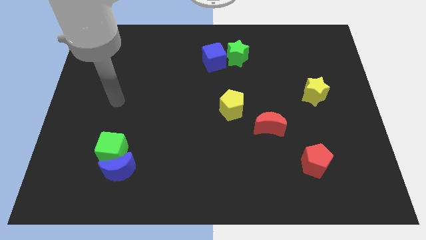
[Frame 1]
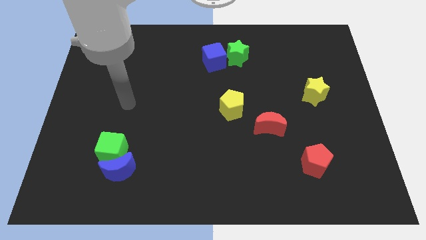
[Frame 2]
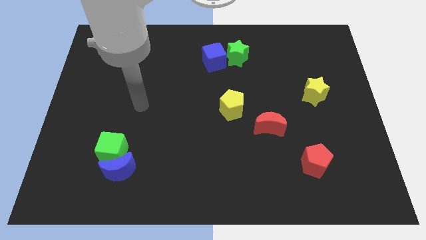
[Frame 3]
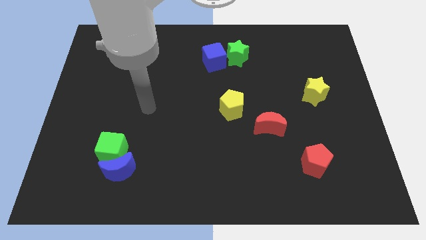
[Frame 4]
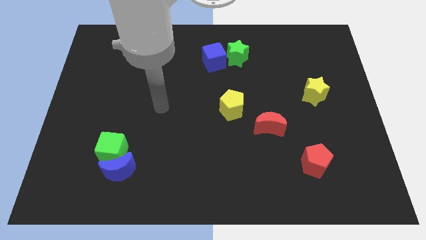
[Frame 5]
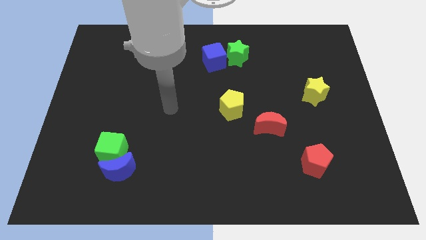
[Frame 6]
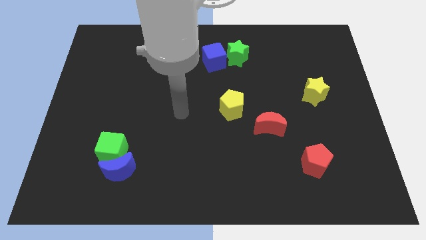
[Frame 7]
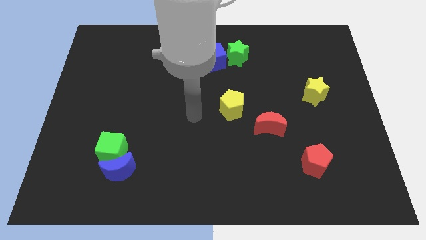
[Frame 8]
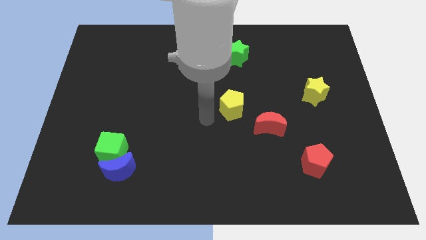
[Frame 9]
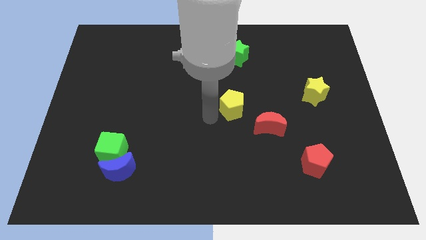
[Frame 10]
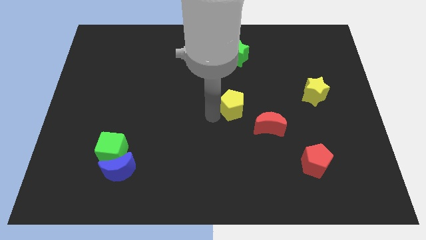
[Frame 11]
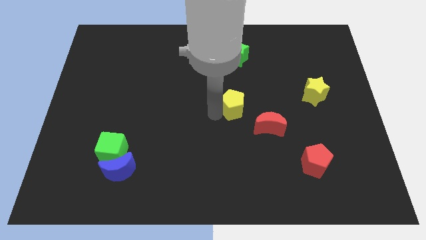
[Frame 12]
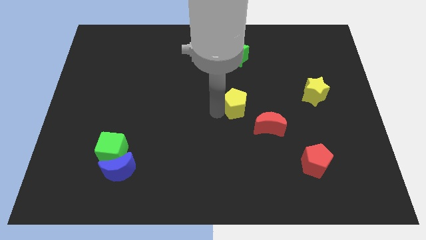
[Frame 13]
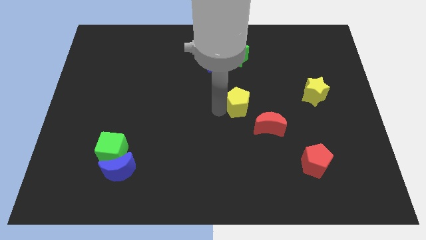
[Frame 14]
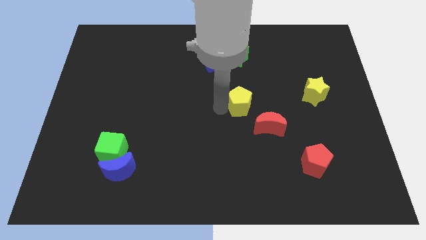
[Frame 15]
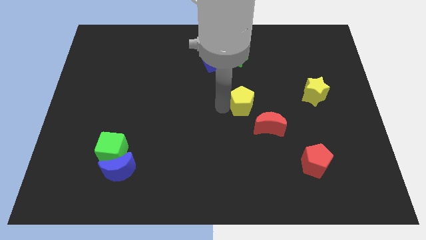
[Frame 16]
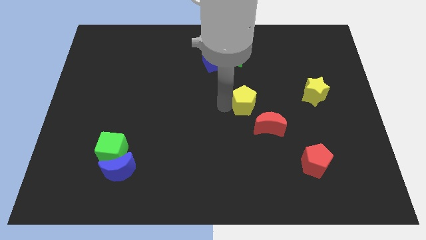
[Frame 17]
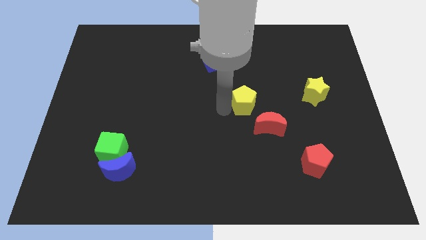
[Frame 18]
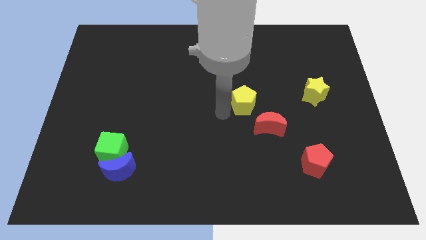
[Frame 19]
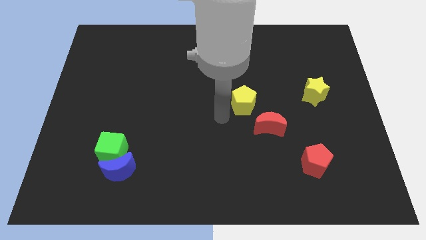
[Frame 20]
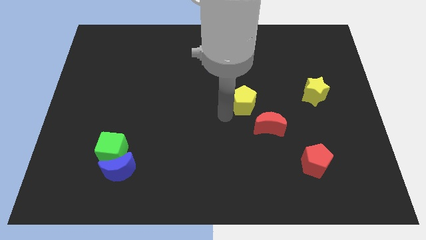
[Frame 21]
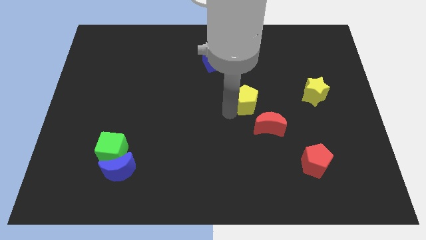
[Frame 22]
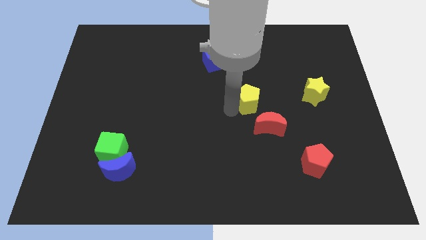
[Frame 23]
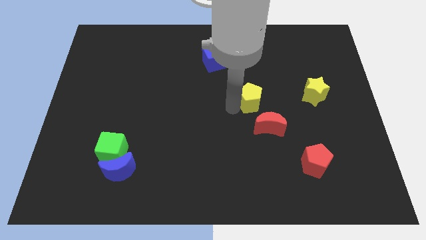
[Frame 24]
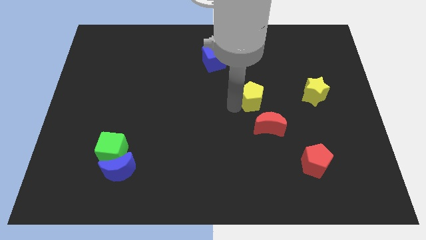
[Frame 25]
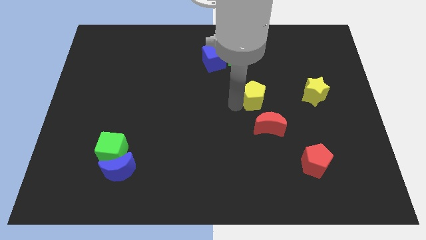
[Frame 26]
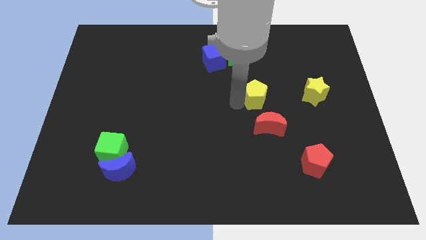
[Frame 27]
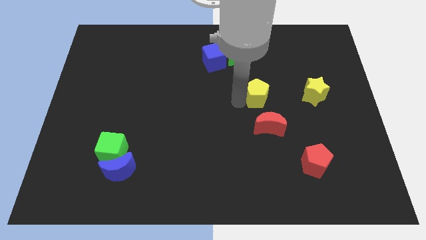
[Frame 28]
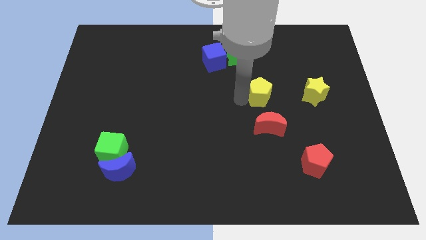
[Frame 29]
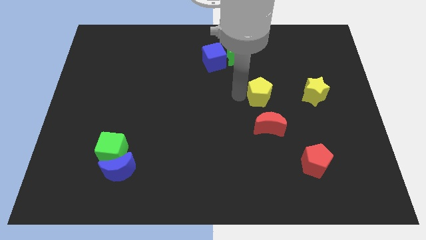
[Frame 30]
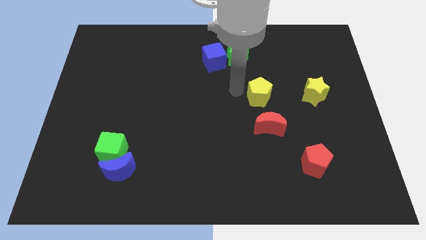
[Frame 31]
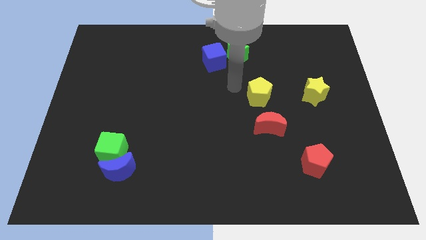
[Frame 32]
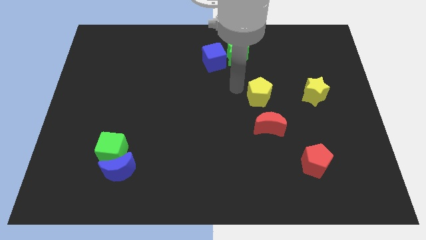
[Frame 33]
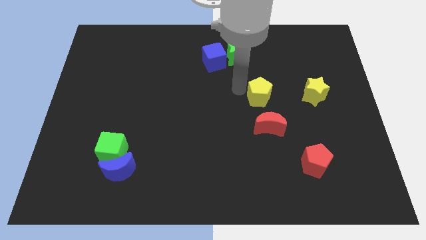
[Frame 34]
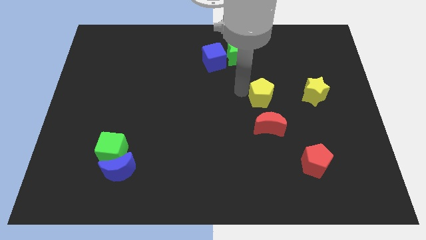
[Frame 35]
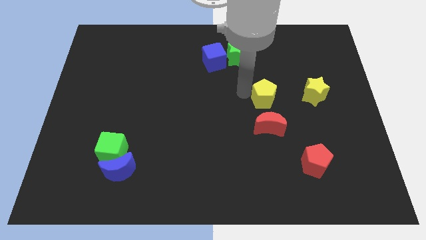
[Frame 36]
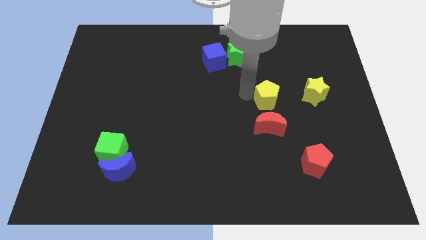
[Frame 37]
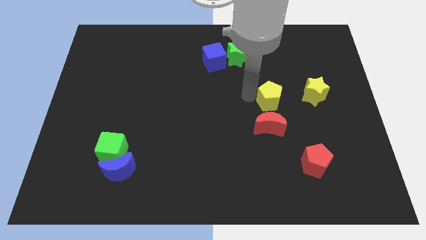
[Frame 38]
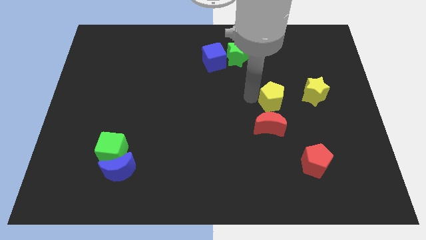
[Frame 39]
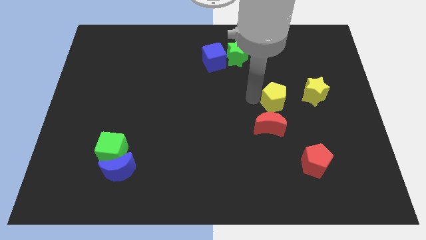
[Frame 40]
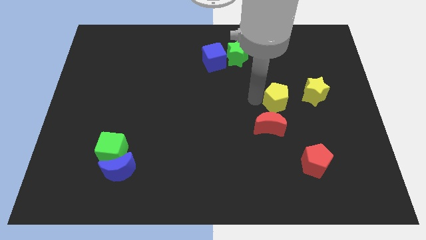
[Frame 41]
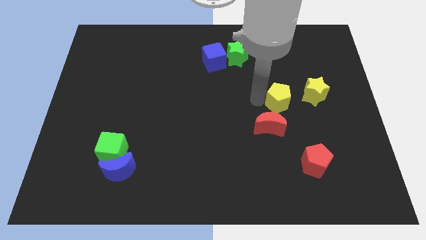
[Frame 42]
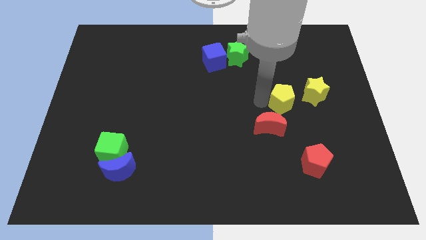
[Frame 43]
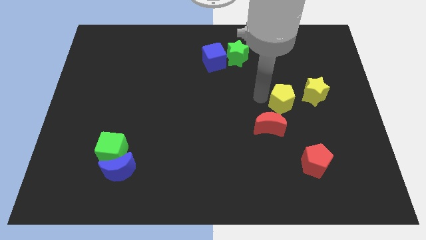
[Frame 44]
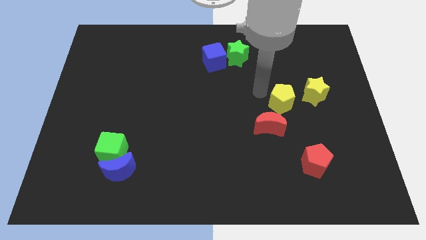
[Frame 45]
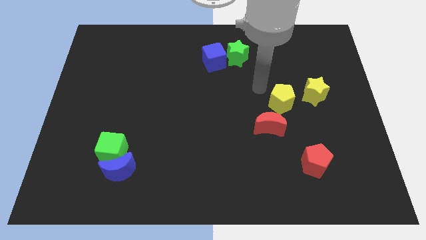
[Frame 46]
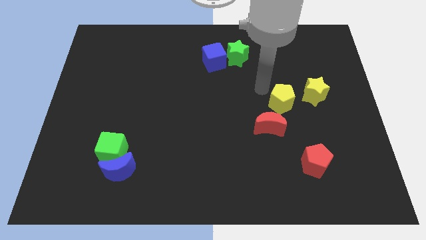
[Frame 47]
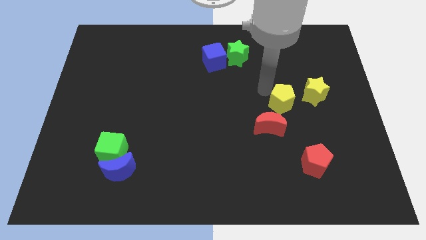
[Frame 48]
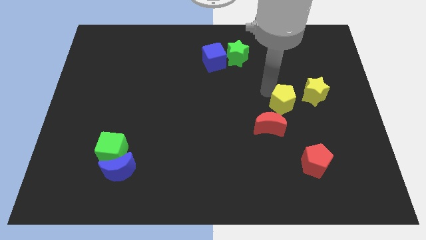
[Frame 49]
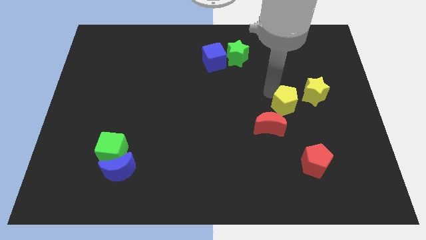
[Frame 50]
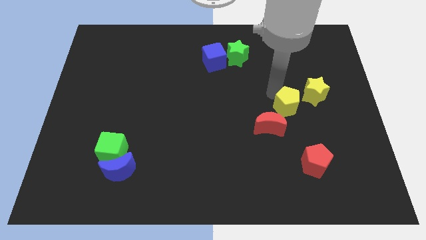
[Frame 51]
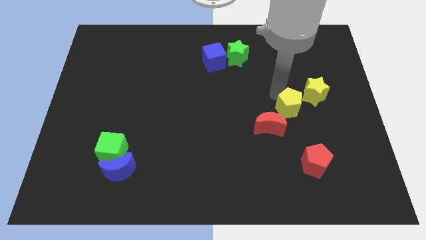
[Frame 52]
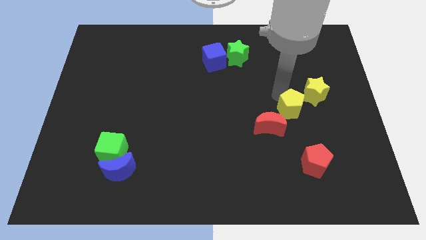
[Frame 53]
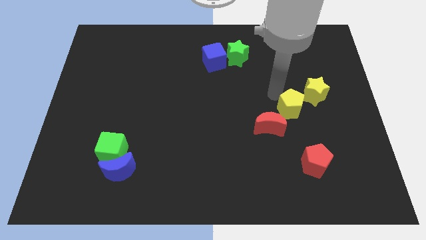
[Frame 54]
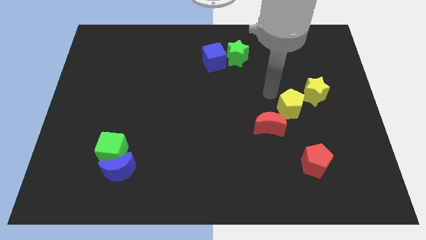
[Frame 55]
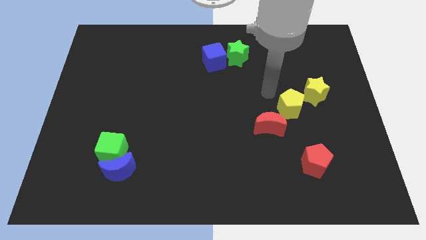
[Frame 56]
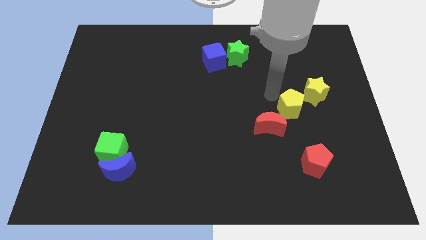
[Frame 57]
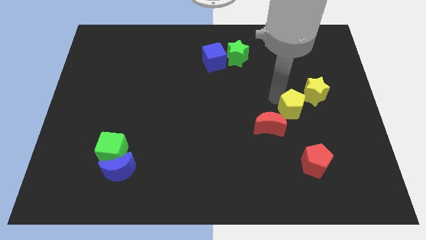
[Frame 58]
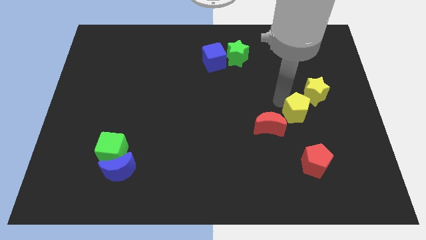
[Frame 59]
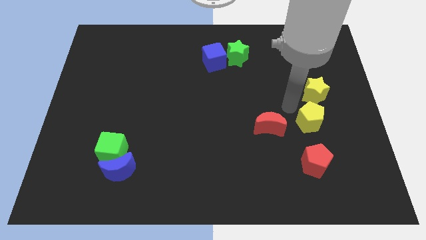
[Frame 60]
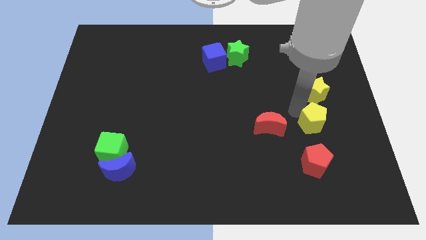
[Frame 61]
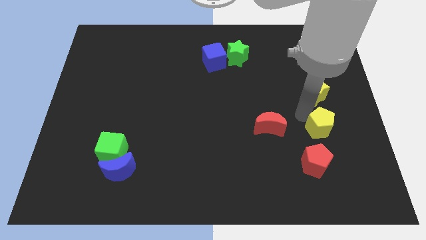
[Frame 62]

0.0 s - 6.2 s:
push the yellow pentagon to the top right of the red pentagon

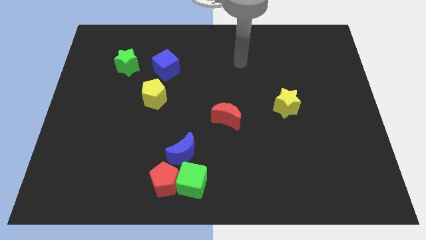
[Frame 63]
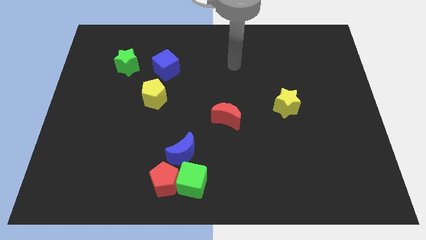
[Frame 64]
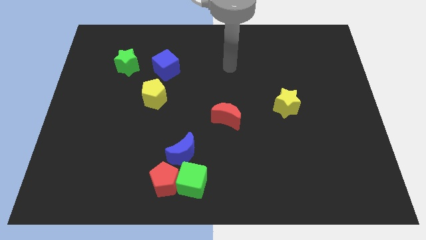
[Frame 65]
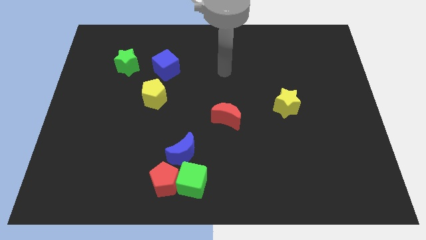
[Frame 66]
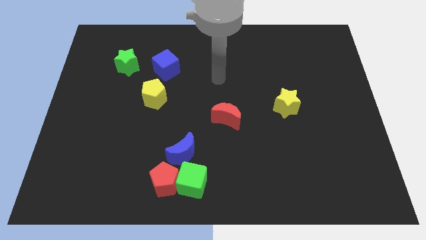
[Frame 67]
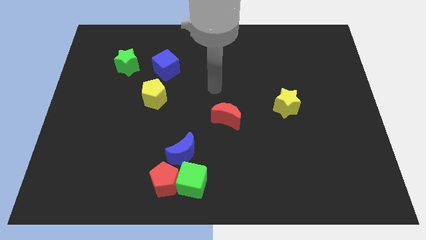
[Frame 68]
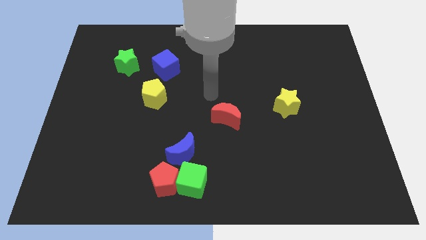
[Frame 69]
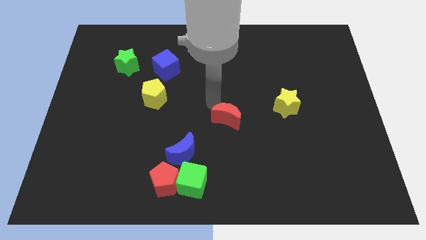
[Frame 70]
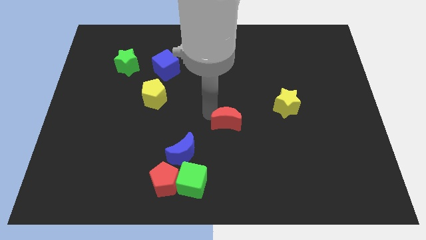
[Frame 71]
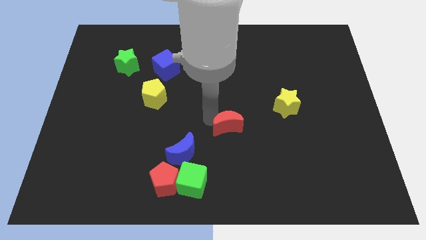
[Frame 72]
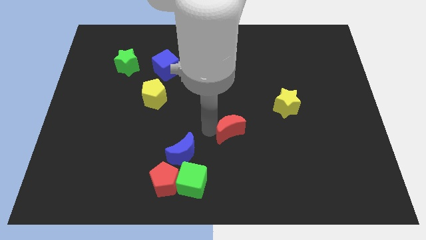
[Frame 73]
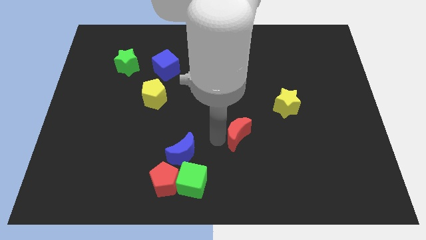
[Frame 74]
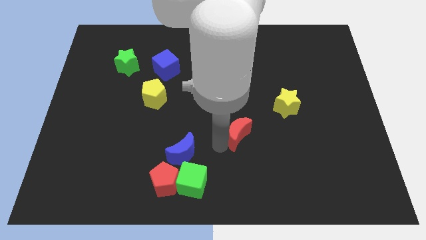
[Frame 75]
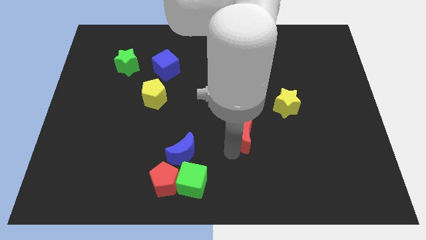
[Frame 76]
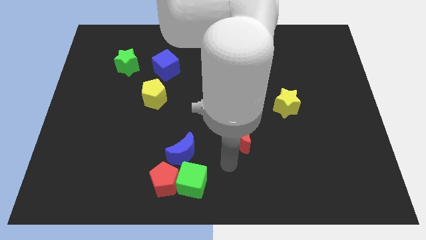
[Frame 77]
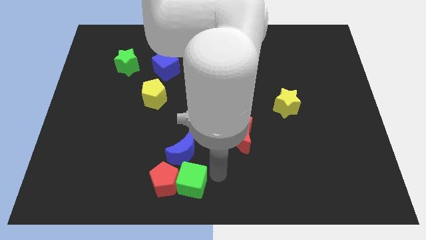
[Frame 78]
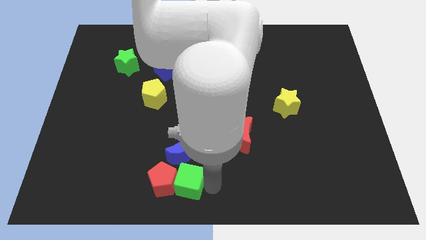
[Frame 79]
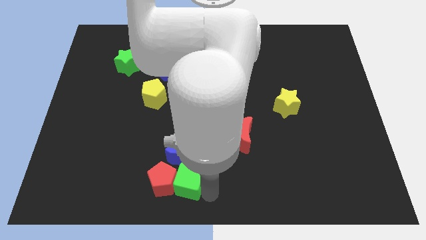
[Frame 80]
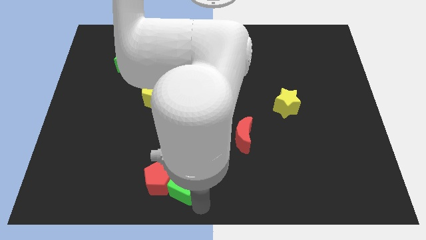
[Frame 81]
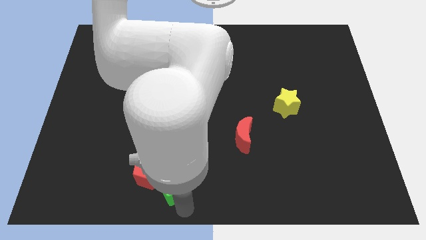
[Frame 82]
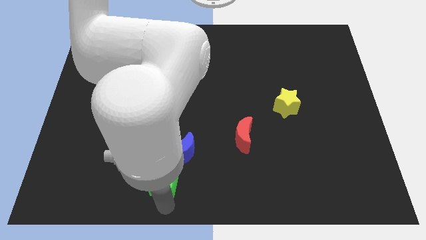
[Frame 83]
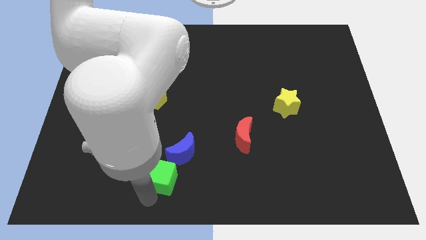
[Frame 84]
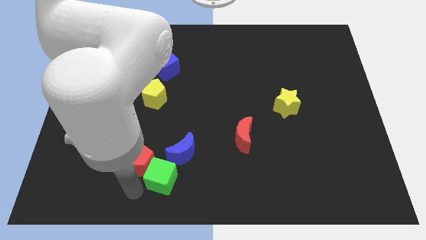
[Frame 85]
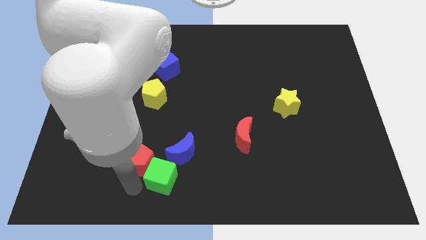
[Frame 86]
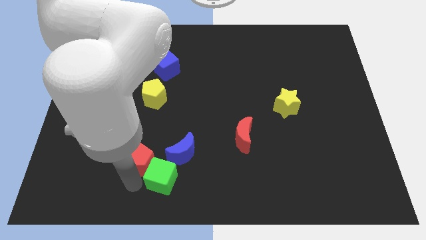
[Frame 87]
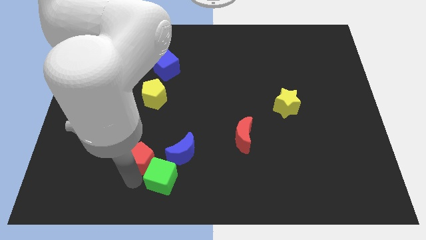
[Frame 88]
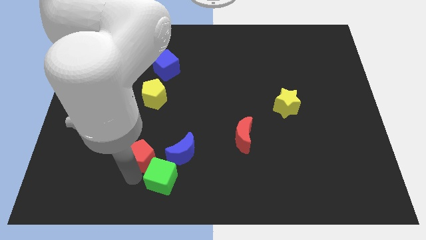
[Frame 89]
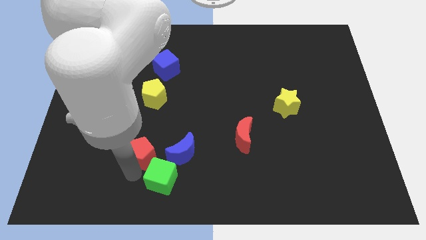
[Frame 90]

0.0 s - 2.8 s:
put the red pentagon to the bottom side of the yellow pentagon
